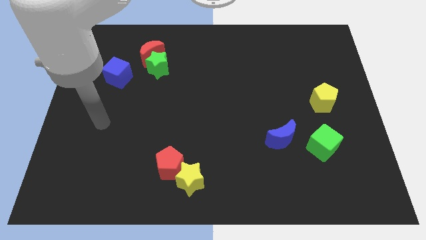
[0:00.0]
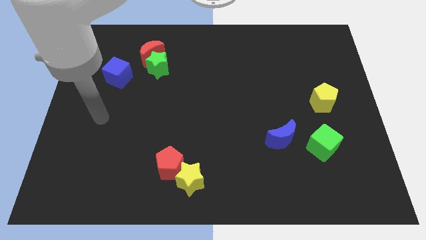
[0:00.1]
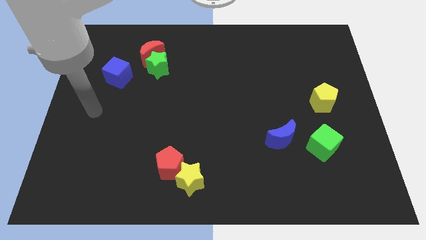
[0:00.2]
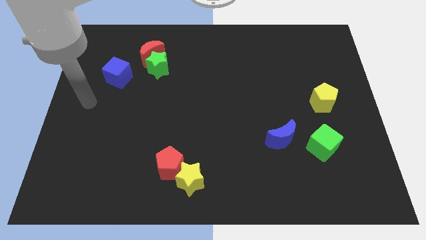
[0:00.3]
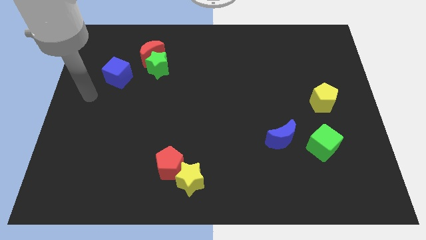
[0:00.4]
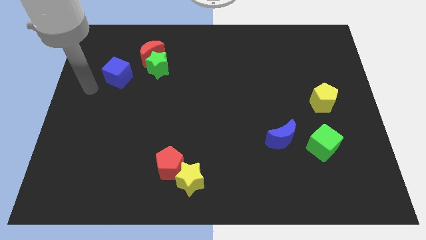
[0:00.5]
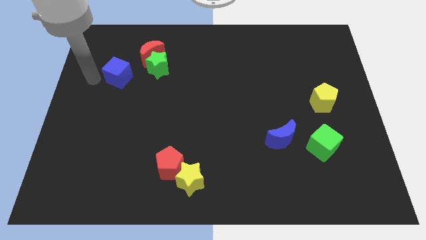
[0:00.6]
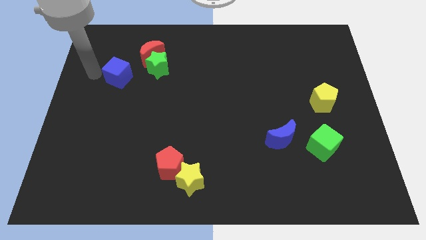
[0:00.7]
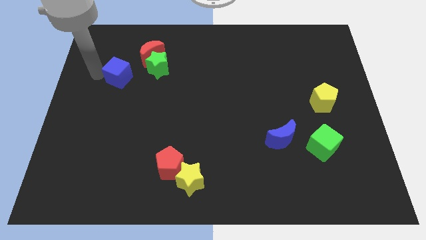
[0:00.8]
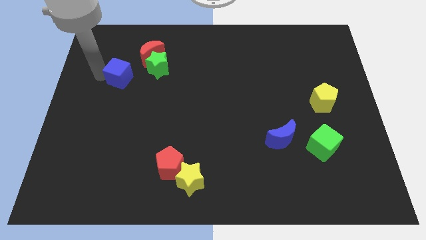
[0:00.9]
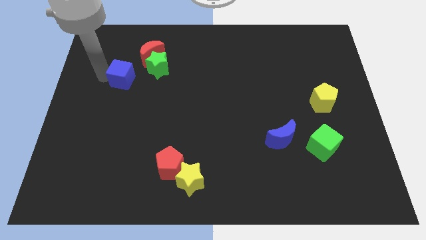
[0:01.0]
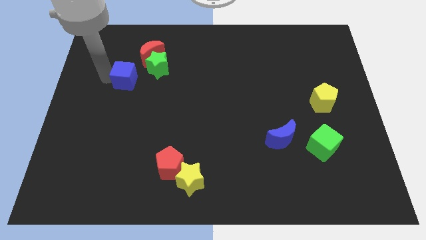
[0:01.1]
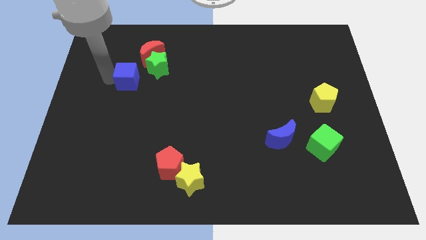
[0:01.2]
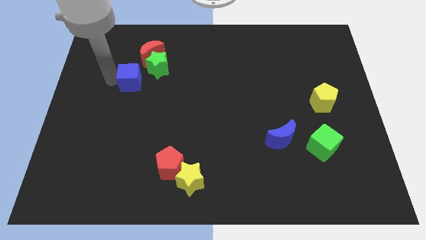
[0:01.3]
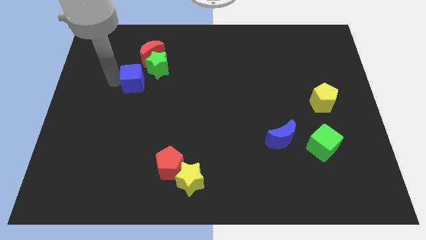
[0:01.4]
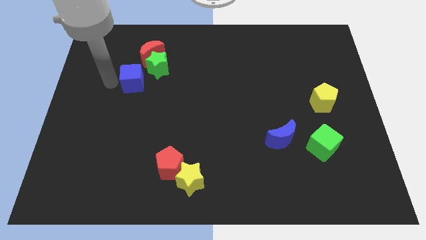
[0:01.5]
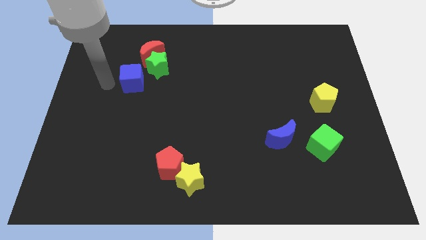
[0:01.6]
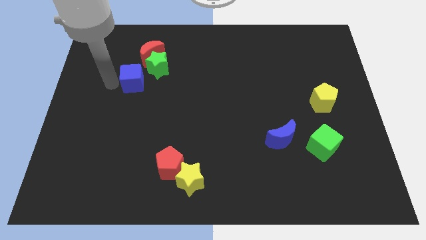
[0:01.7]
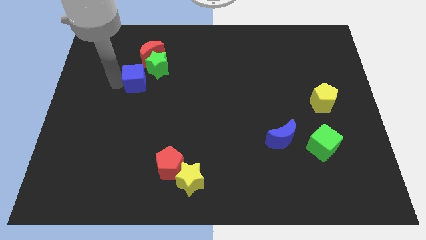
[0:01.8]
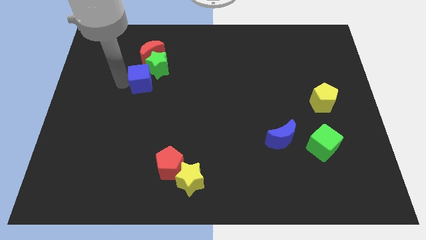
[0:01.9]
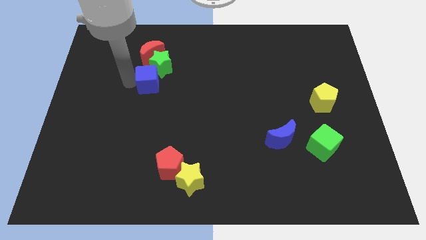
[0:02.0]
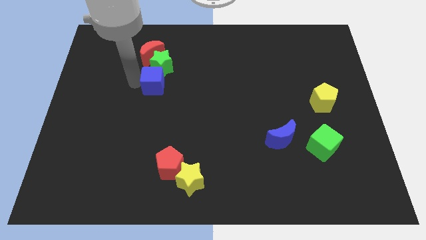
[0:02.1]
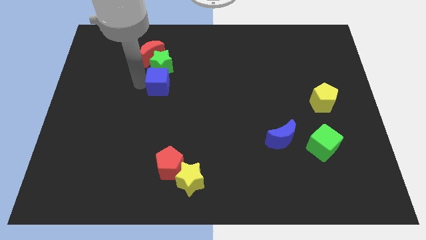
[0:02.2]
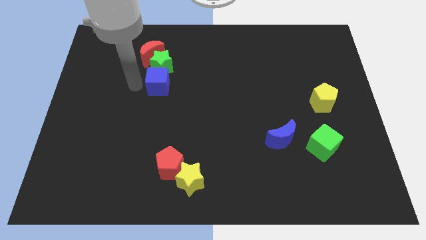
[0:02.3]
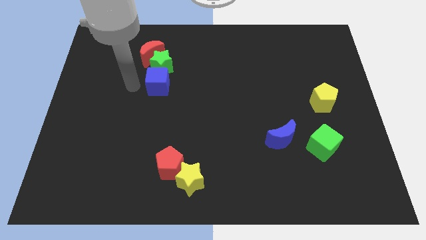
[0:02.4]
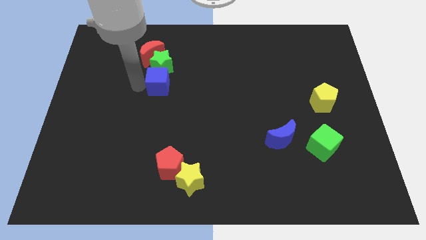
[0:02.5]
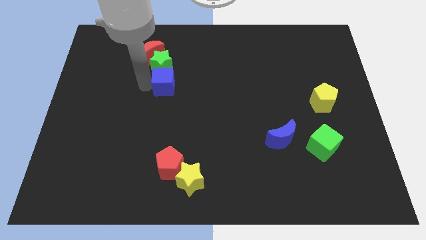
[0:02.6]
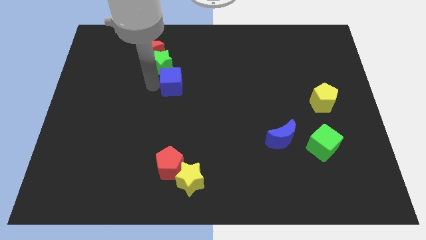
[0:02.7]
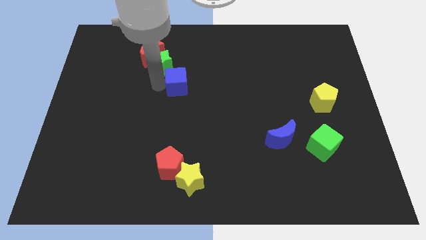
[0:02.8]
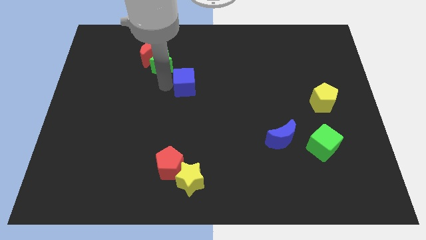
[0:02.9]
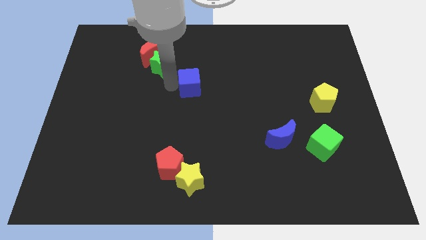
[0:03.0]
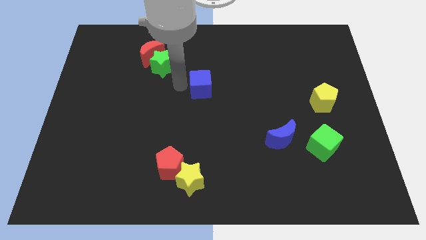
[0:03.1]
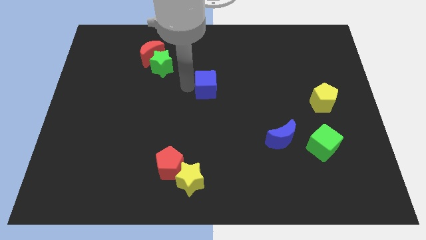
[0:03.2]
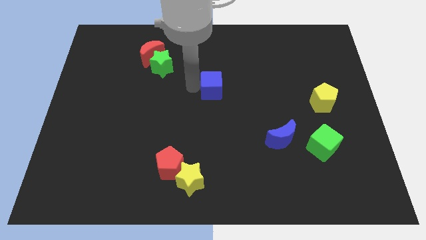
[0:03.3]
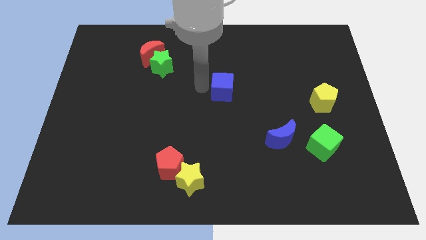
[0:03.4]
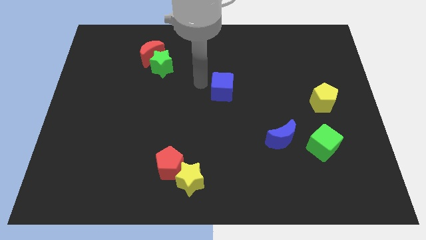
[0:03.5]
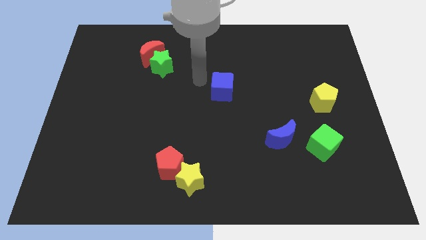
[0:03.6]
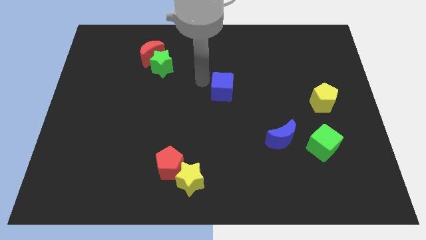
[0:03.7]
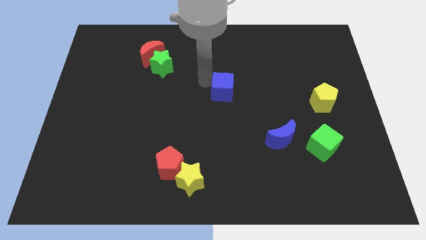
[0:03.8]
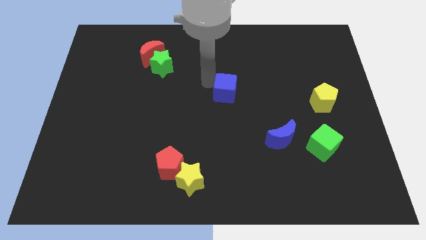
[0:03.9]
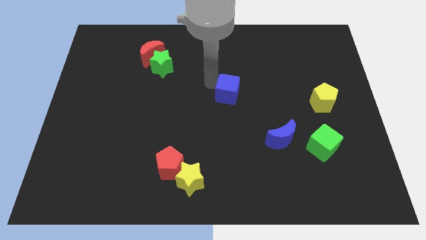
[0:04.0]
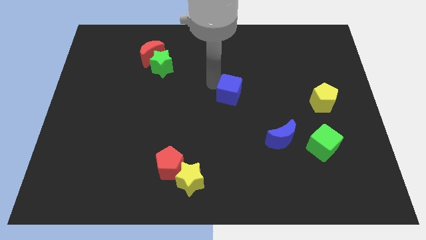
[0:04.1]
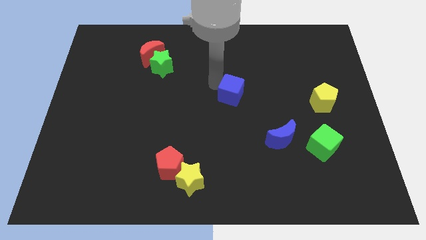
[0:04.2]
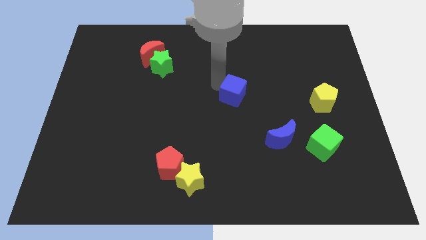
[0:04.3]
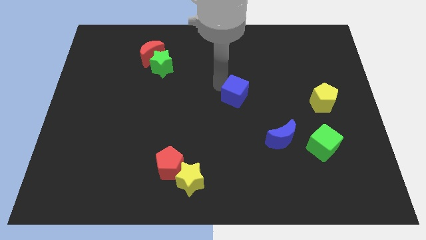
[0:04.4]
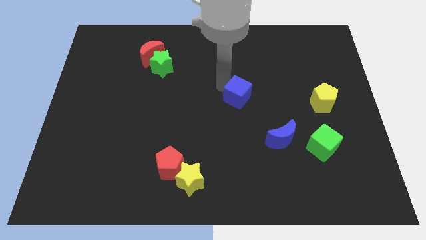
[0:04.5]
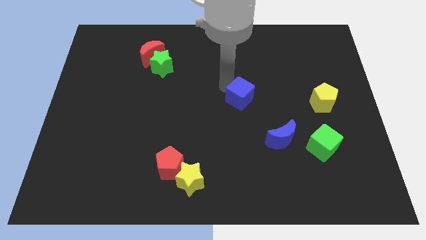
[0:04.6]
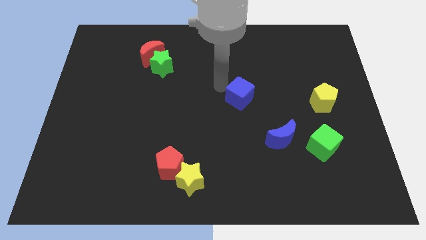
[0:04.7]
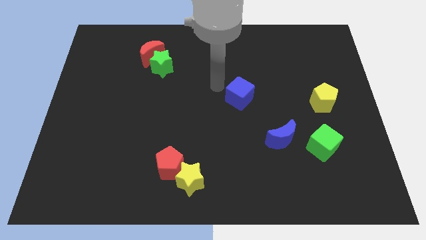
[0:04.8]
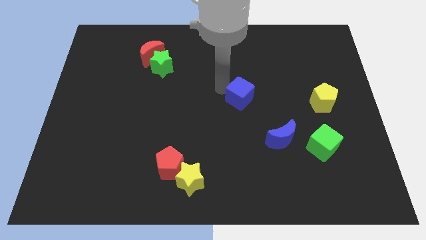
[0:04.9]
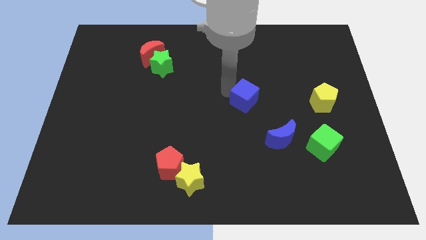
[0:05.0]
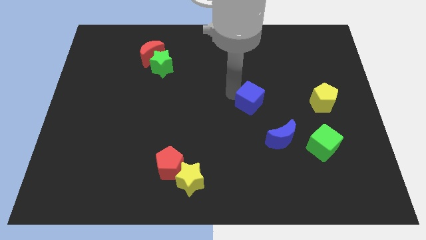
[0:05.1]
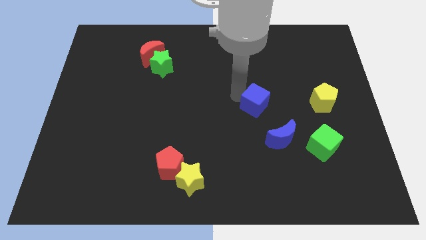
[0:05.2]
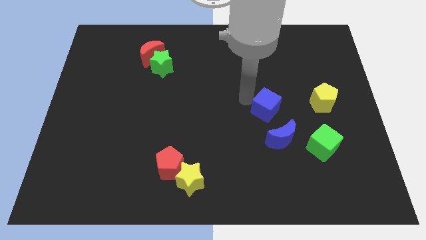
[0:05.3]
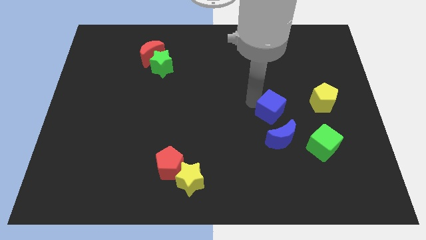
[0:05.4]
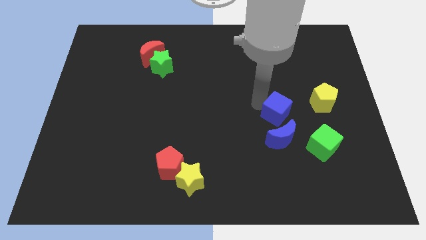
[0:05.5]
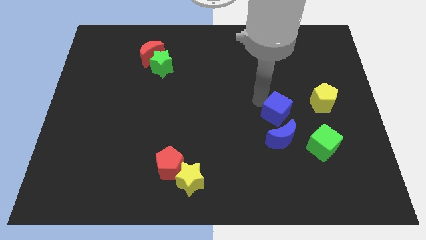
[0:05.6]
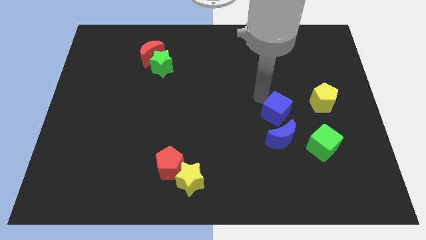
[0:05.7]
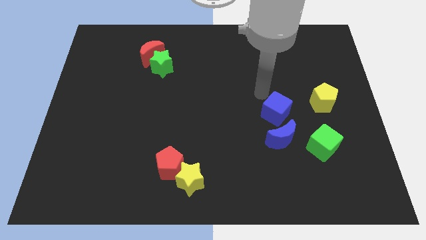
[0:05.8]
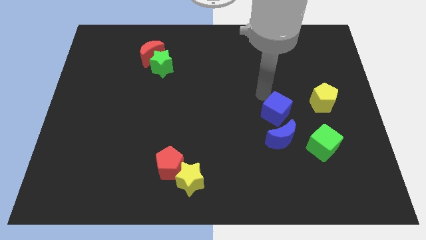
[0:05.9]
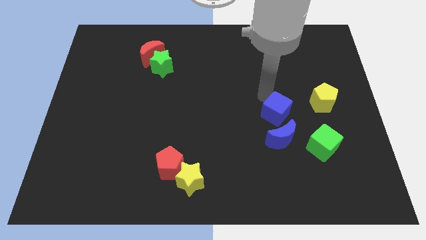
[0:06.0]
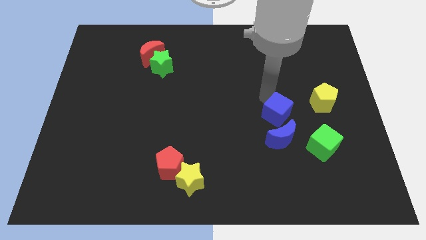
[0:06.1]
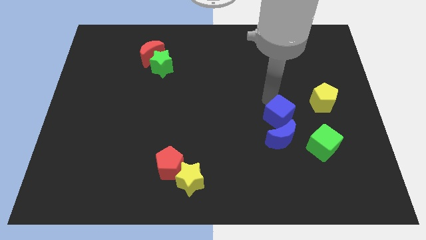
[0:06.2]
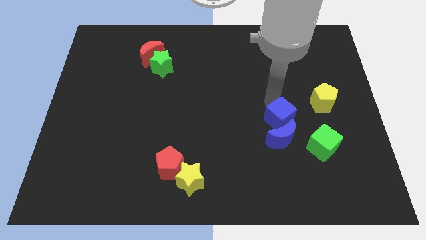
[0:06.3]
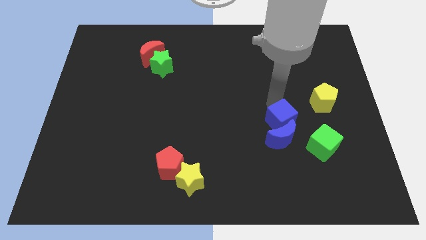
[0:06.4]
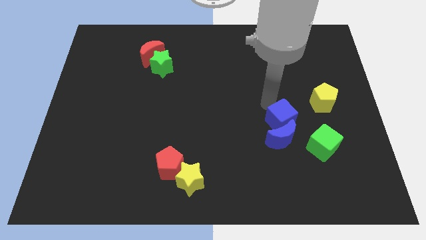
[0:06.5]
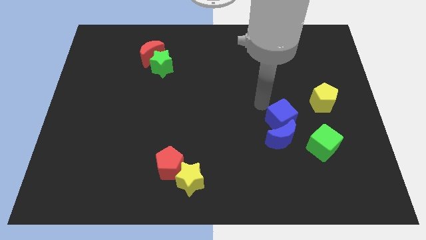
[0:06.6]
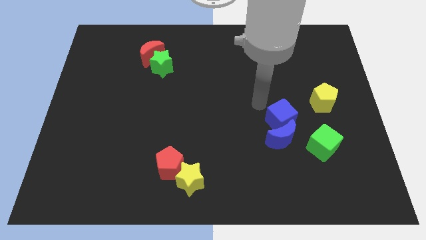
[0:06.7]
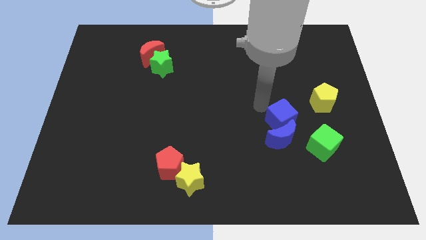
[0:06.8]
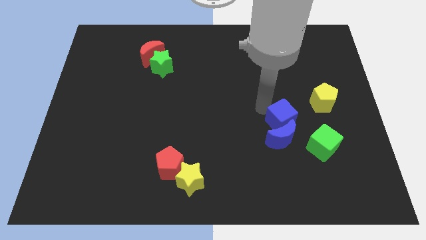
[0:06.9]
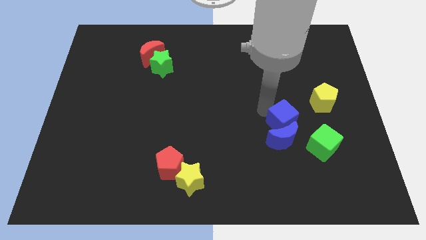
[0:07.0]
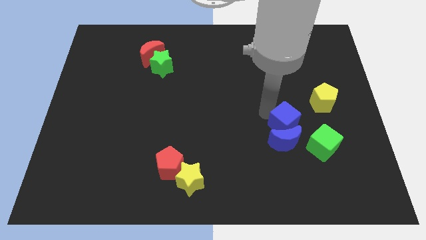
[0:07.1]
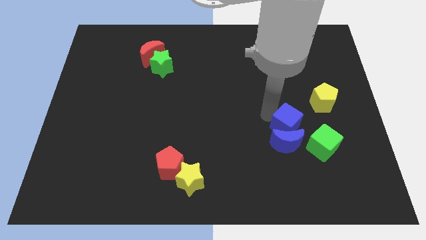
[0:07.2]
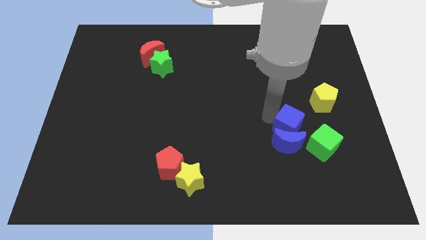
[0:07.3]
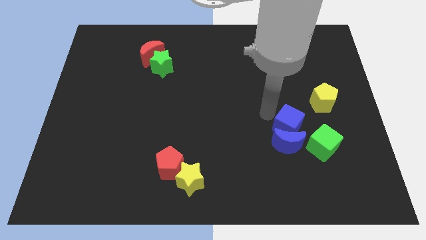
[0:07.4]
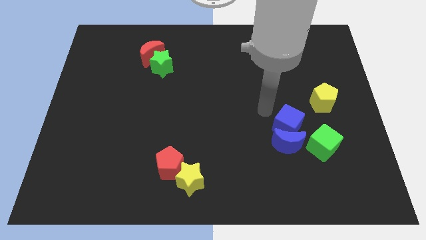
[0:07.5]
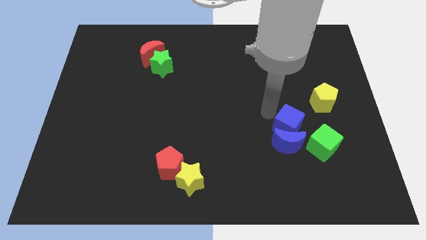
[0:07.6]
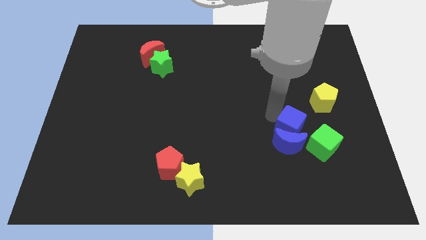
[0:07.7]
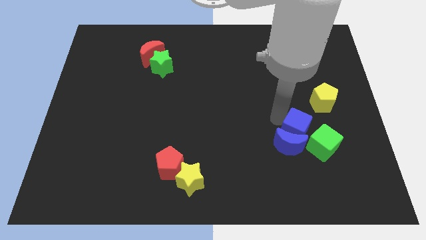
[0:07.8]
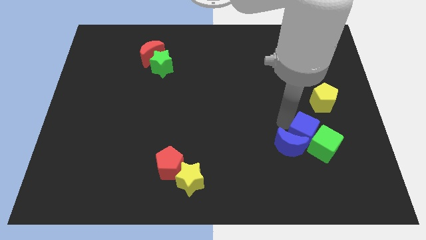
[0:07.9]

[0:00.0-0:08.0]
move the blue cube next to the green cube
